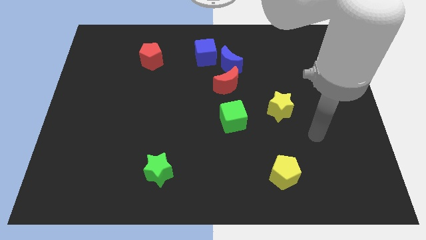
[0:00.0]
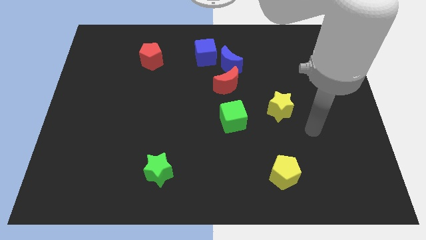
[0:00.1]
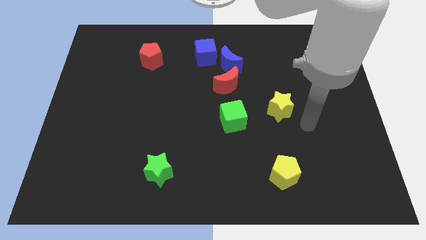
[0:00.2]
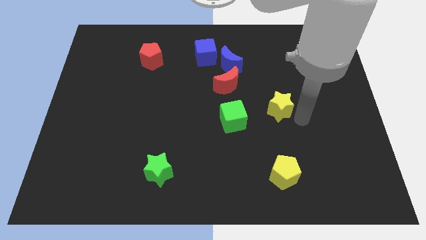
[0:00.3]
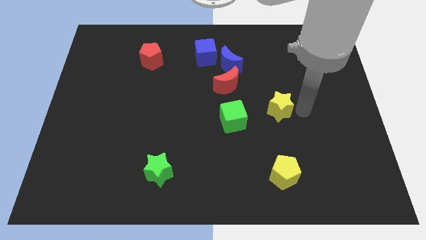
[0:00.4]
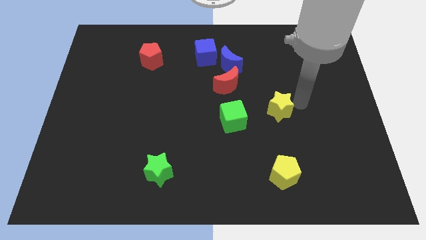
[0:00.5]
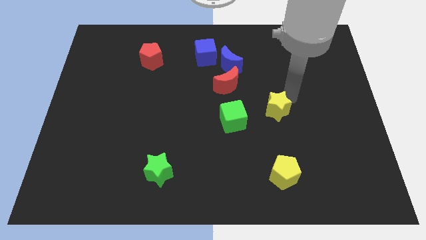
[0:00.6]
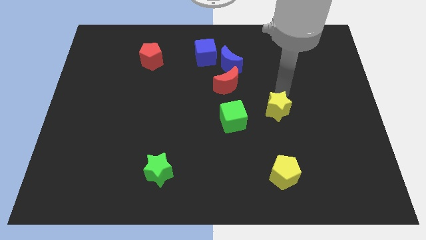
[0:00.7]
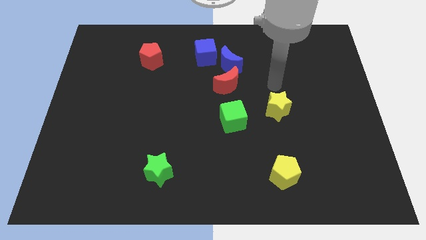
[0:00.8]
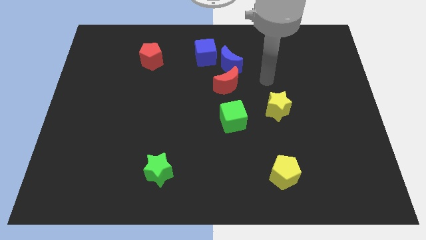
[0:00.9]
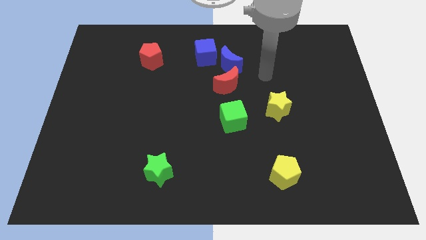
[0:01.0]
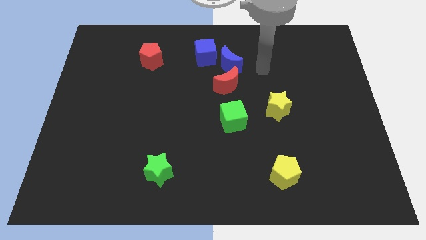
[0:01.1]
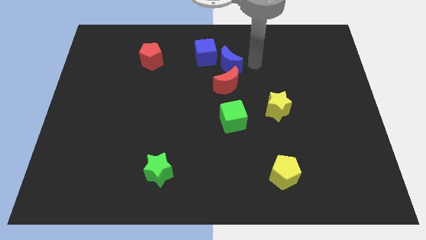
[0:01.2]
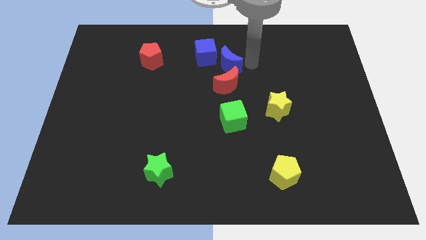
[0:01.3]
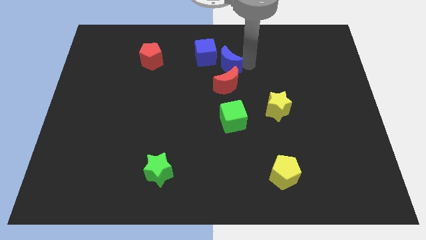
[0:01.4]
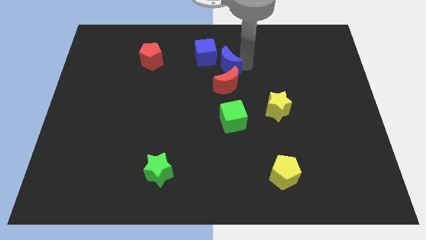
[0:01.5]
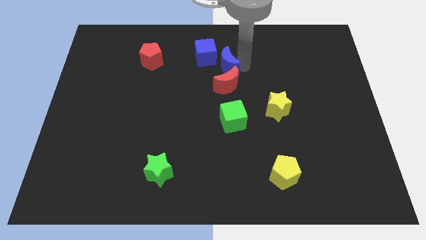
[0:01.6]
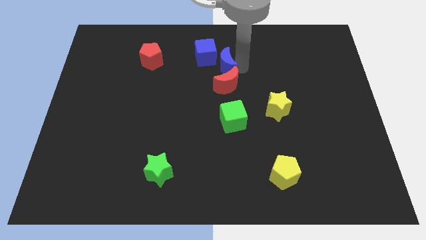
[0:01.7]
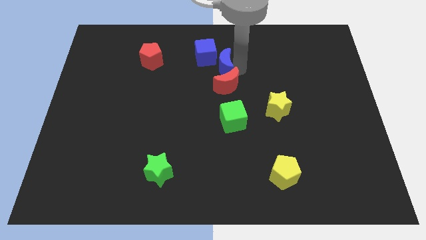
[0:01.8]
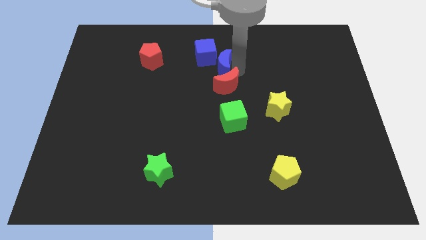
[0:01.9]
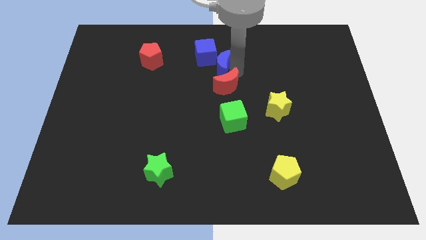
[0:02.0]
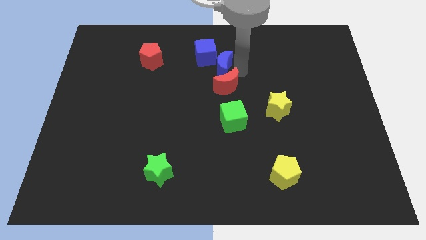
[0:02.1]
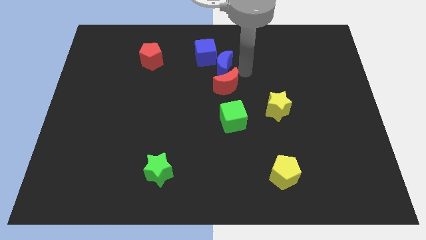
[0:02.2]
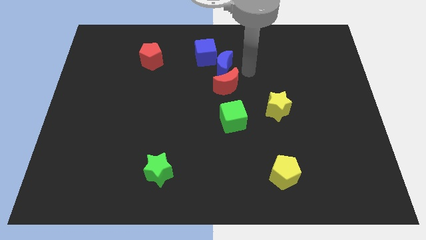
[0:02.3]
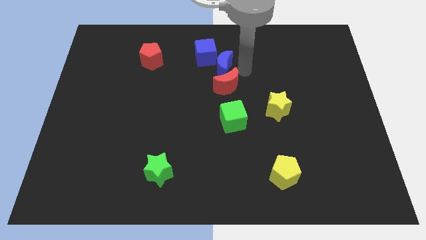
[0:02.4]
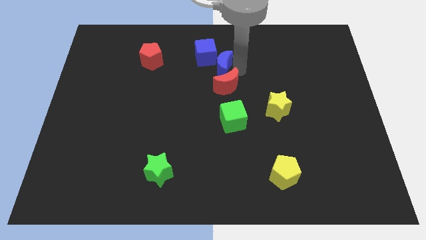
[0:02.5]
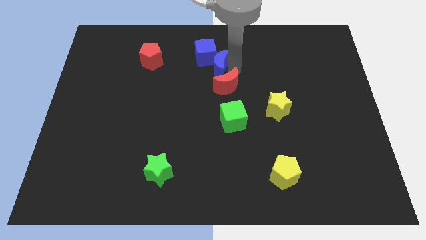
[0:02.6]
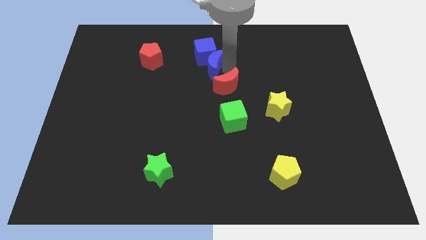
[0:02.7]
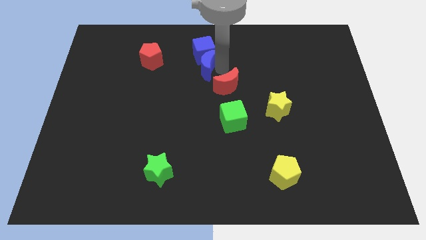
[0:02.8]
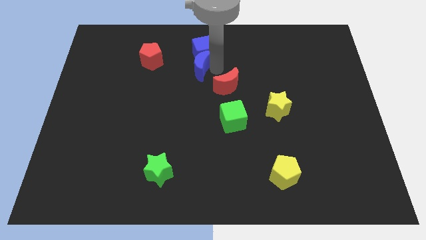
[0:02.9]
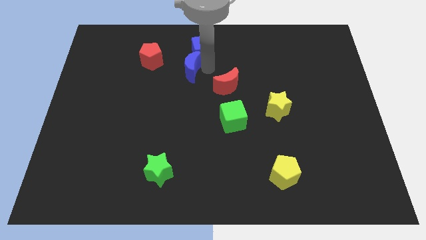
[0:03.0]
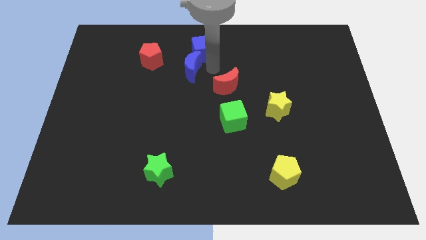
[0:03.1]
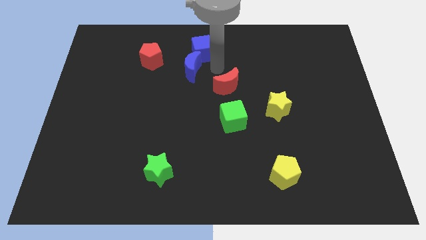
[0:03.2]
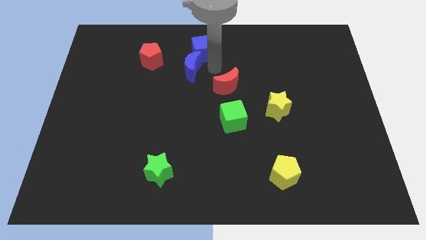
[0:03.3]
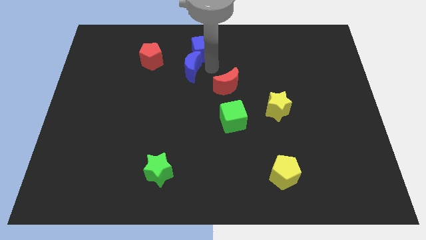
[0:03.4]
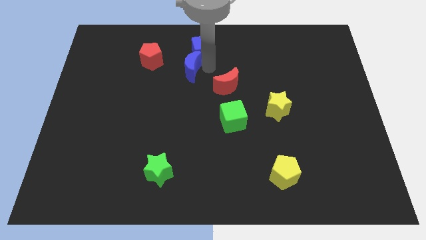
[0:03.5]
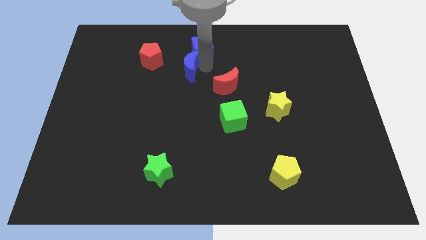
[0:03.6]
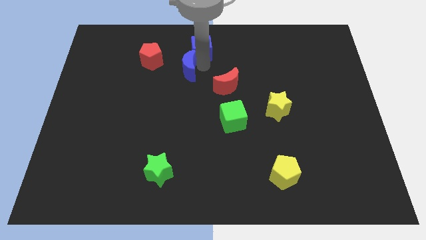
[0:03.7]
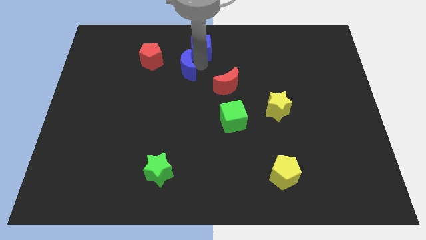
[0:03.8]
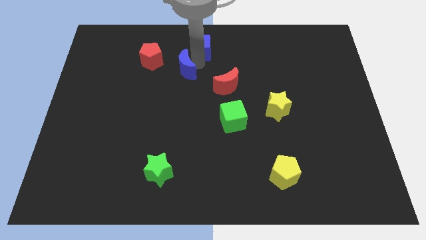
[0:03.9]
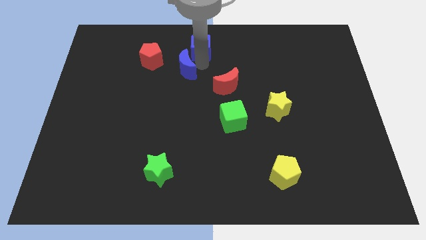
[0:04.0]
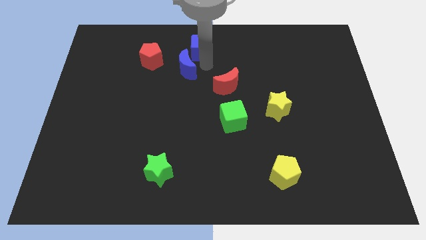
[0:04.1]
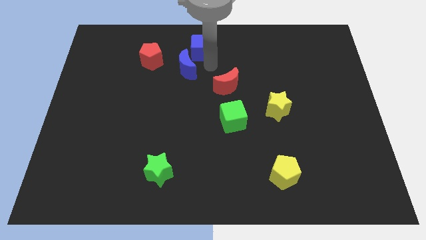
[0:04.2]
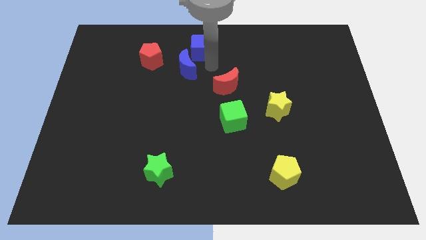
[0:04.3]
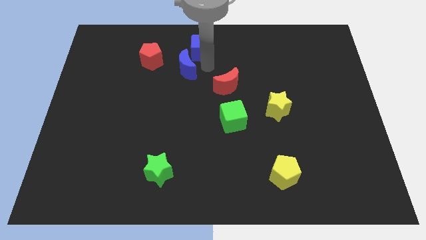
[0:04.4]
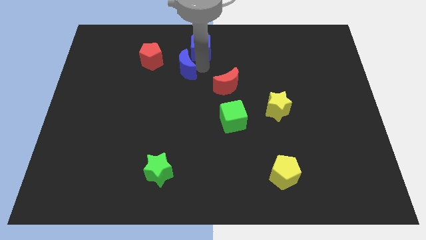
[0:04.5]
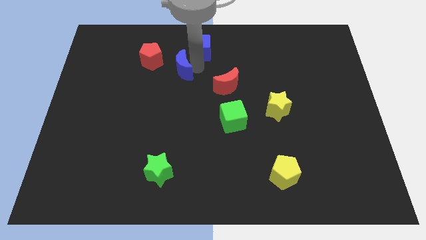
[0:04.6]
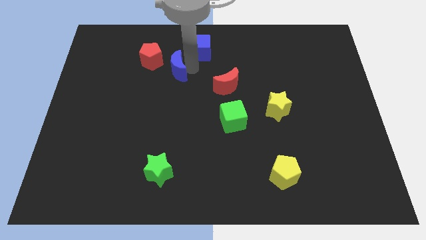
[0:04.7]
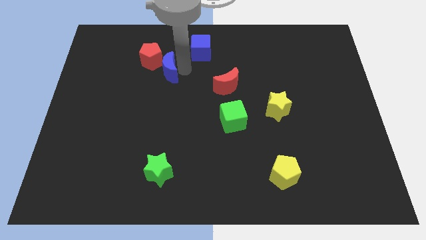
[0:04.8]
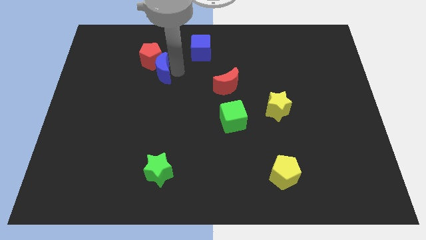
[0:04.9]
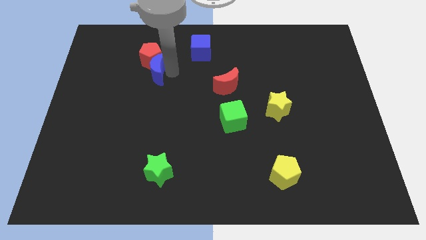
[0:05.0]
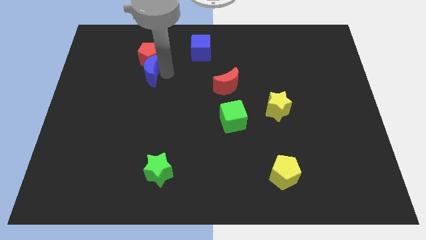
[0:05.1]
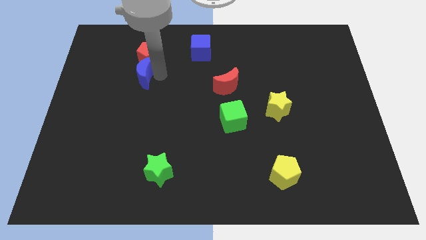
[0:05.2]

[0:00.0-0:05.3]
push the blue moon left

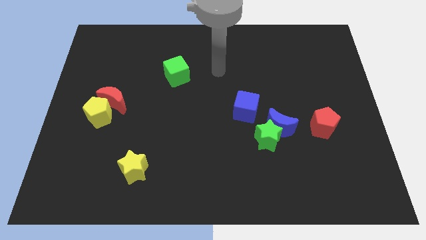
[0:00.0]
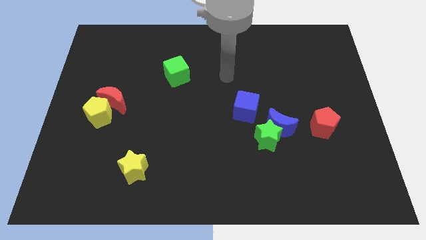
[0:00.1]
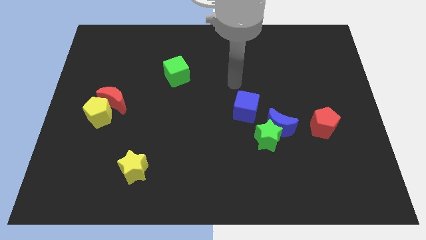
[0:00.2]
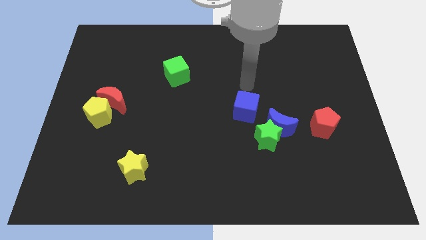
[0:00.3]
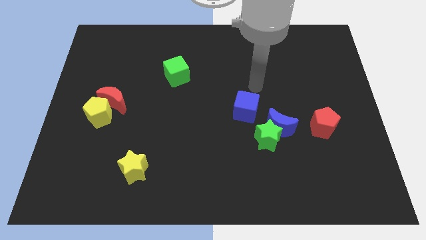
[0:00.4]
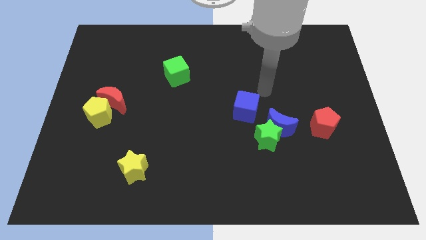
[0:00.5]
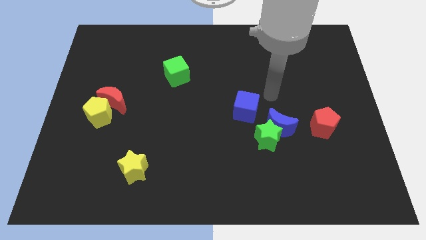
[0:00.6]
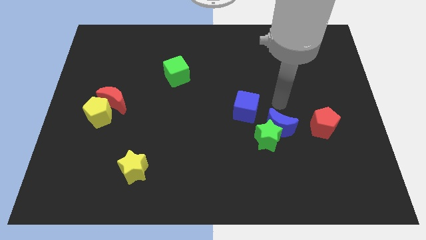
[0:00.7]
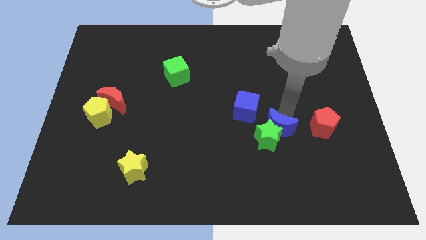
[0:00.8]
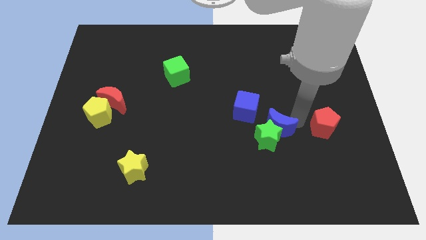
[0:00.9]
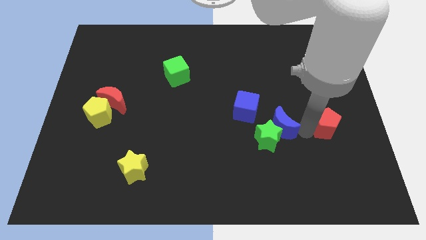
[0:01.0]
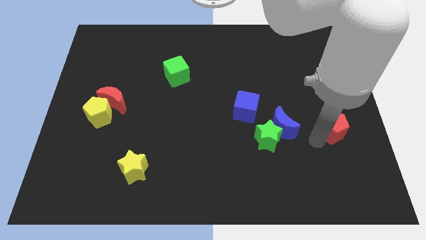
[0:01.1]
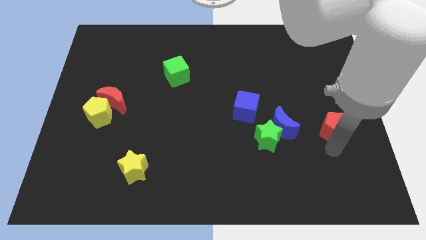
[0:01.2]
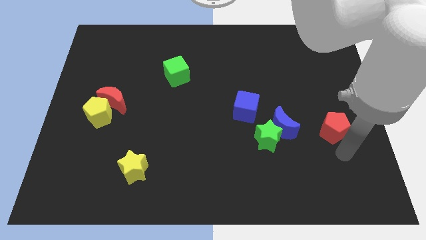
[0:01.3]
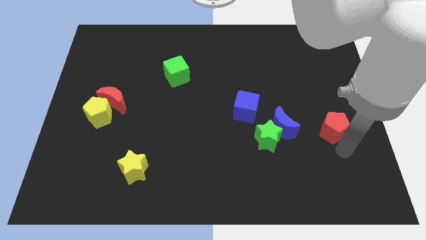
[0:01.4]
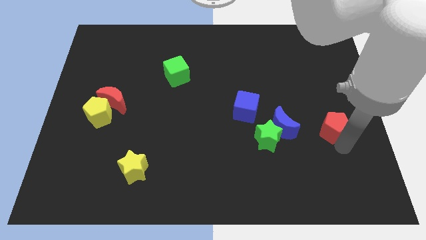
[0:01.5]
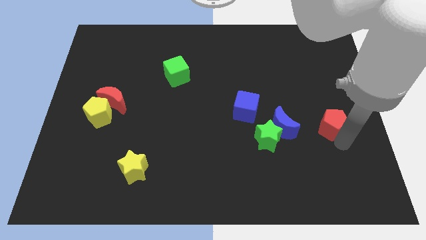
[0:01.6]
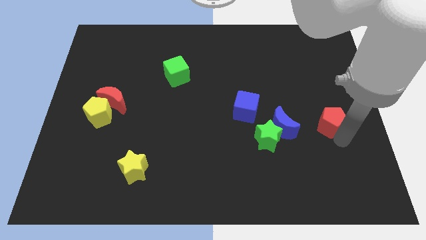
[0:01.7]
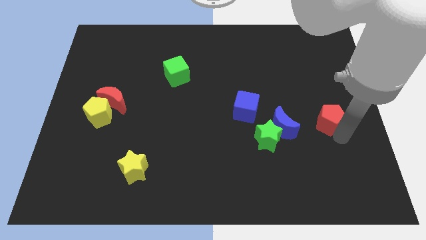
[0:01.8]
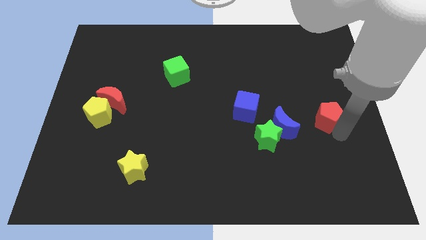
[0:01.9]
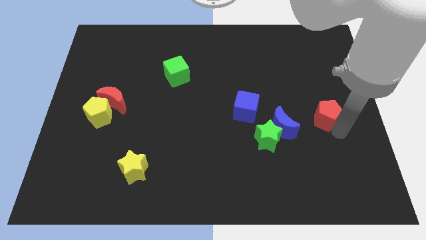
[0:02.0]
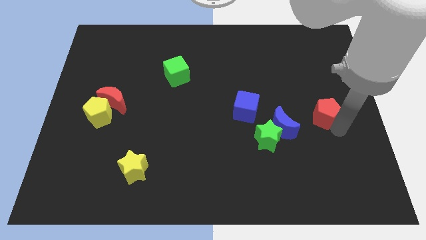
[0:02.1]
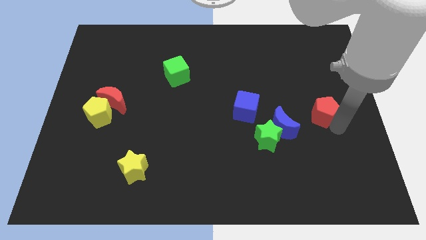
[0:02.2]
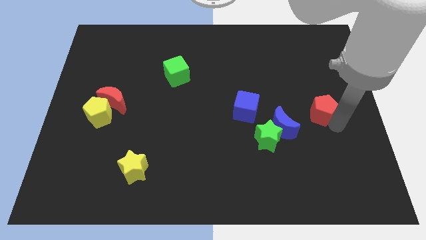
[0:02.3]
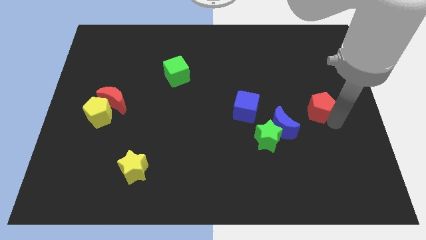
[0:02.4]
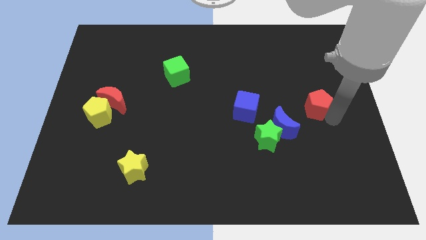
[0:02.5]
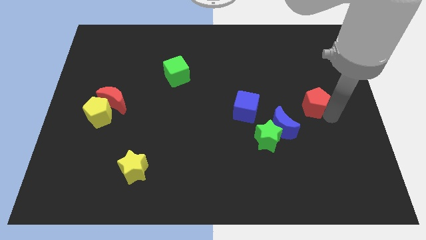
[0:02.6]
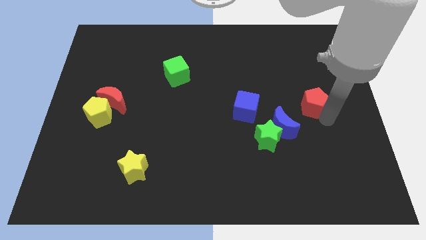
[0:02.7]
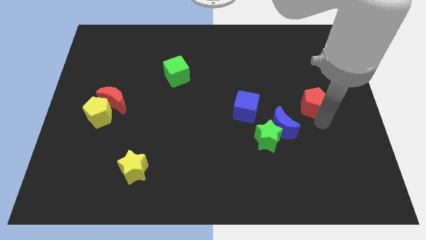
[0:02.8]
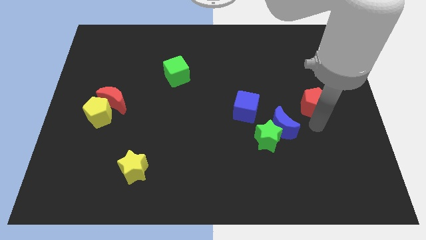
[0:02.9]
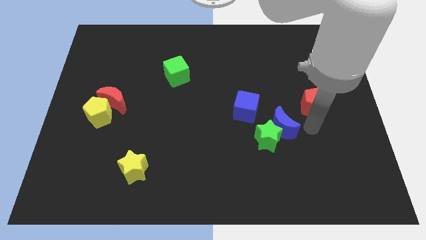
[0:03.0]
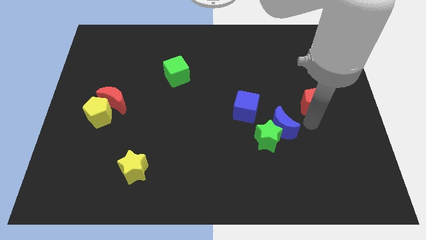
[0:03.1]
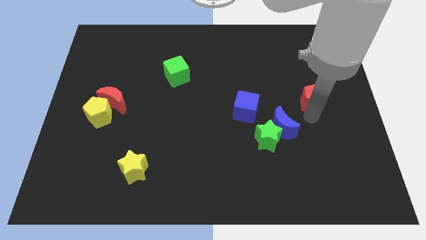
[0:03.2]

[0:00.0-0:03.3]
move the red pentagon a little bit up
